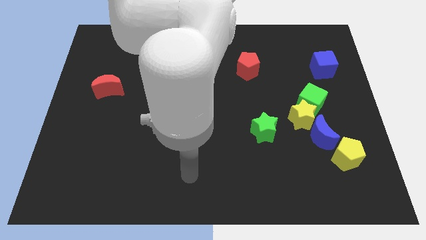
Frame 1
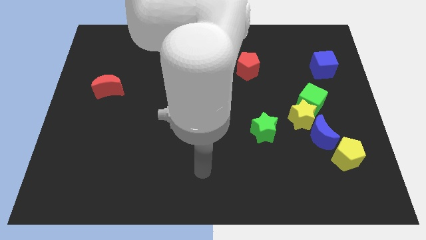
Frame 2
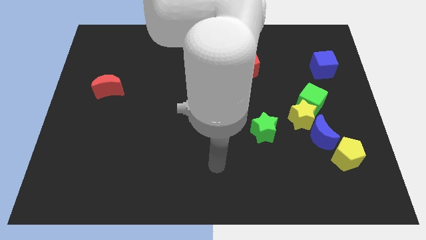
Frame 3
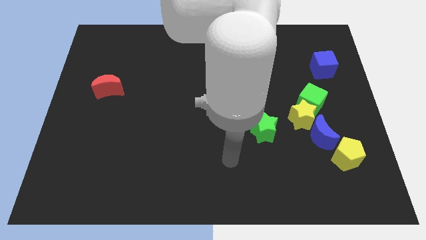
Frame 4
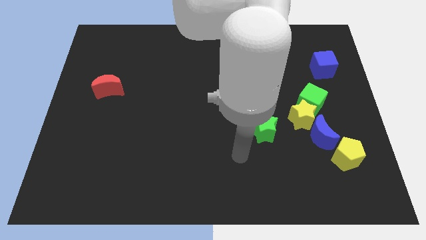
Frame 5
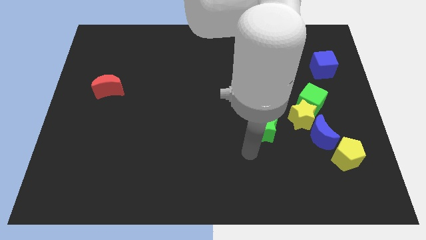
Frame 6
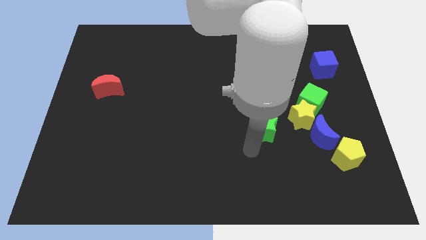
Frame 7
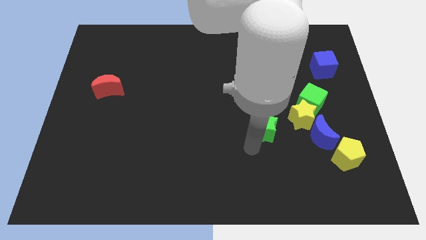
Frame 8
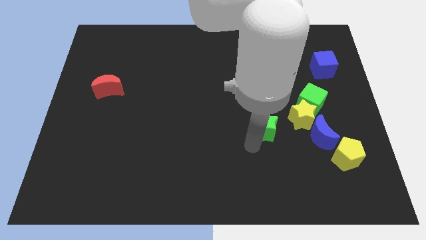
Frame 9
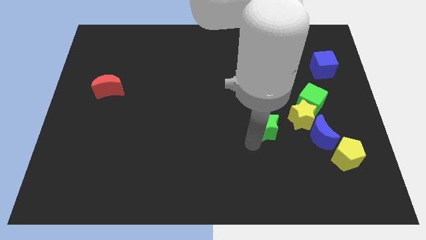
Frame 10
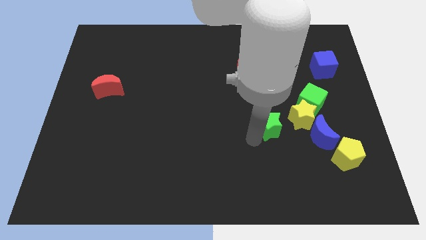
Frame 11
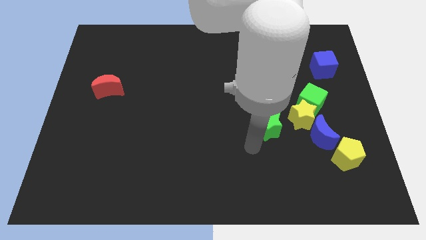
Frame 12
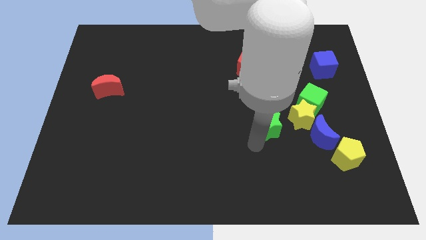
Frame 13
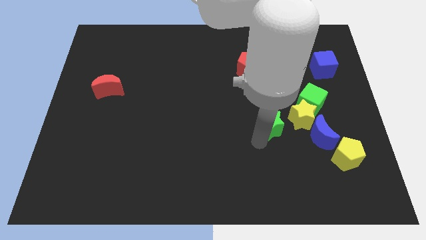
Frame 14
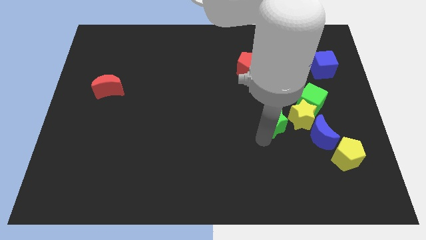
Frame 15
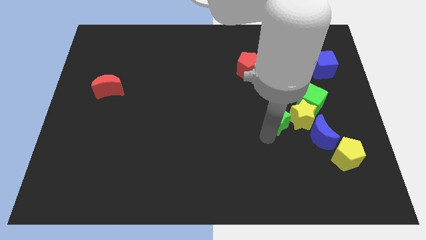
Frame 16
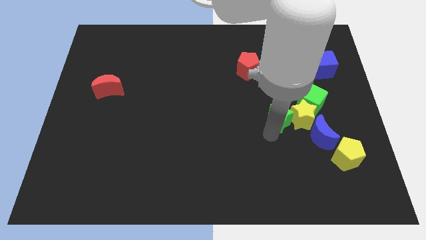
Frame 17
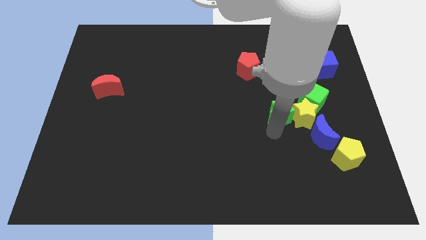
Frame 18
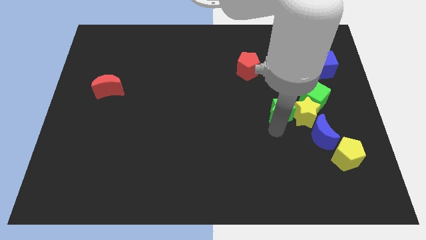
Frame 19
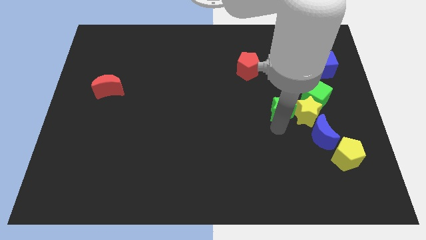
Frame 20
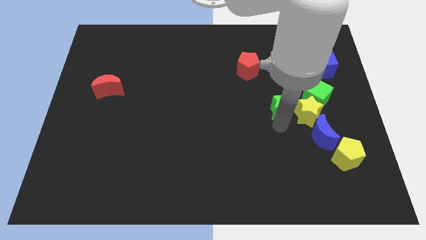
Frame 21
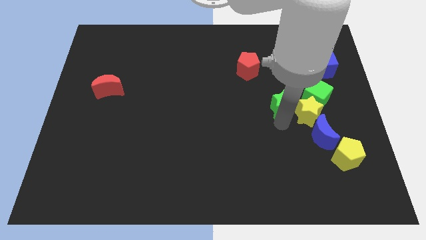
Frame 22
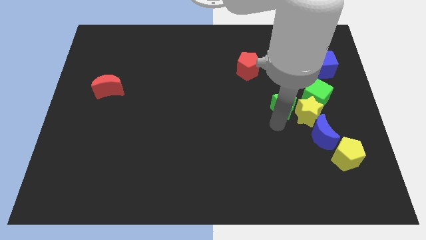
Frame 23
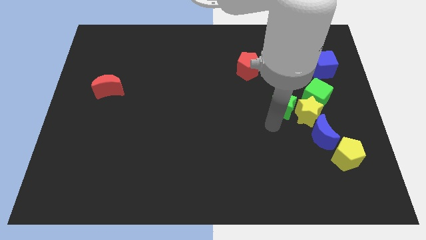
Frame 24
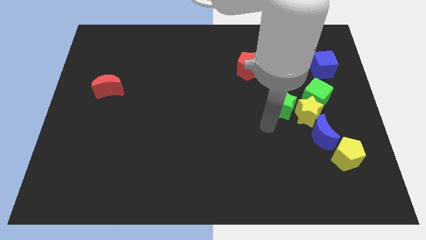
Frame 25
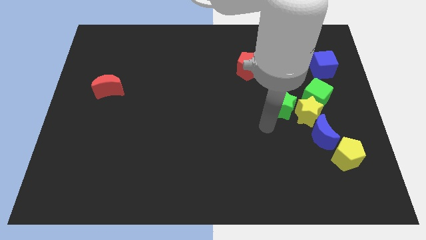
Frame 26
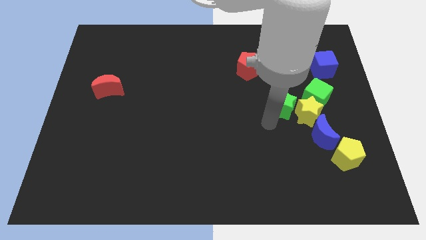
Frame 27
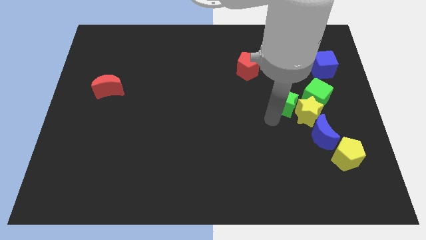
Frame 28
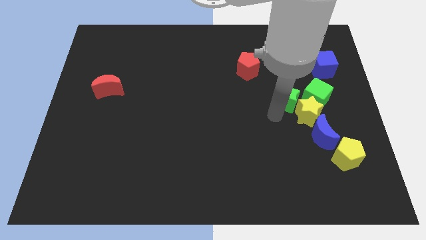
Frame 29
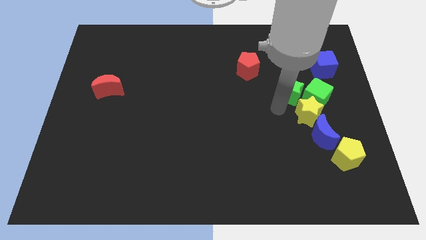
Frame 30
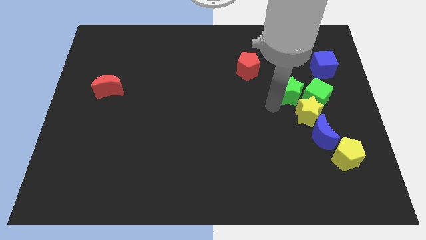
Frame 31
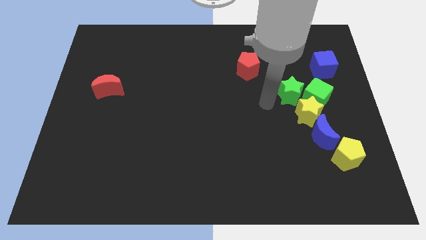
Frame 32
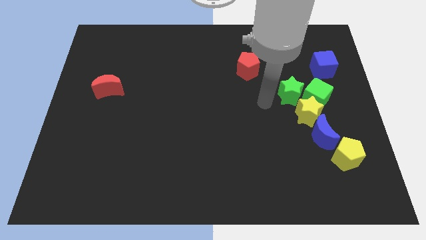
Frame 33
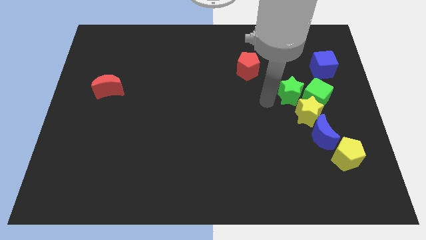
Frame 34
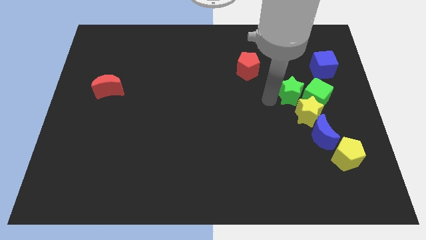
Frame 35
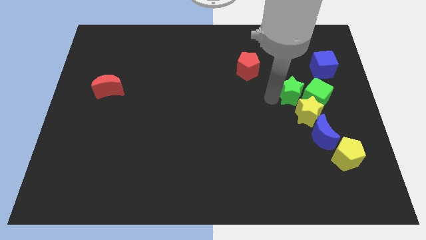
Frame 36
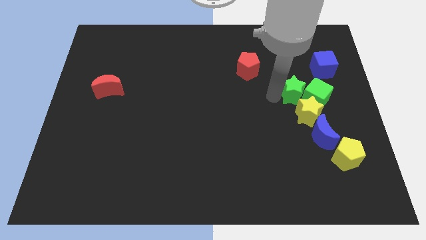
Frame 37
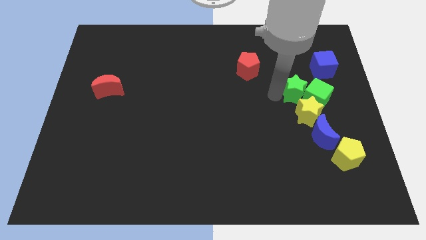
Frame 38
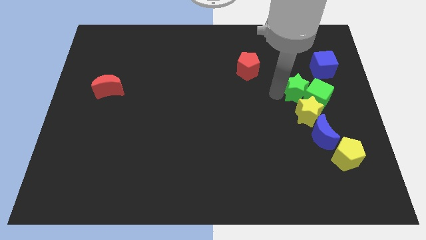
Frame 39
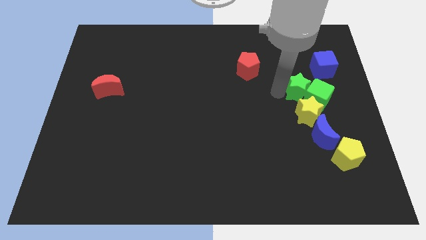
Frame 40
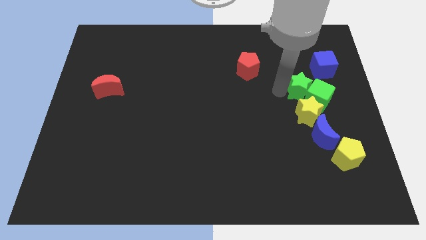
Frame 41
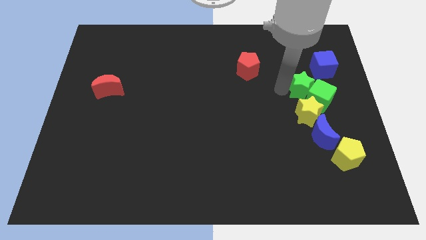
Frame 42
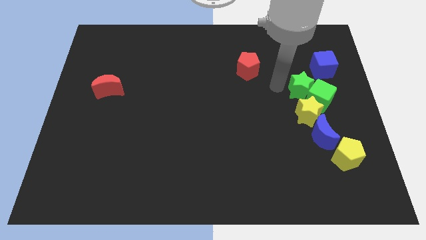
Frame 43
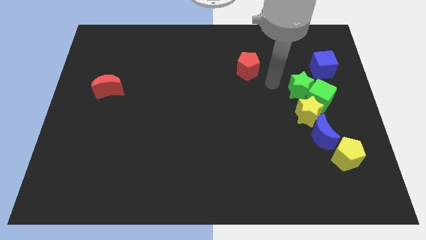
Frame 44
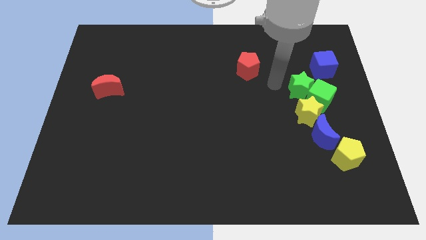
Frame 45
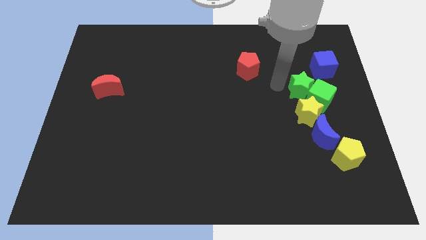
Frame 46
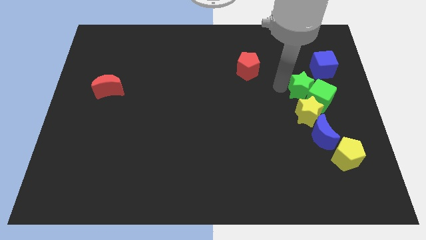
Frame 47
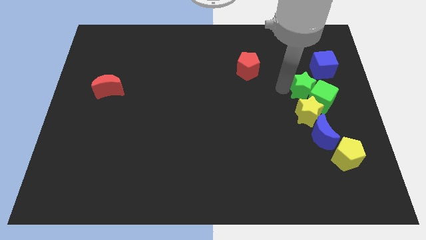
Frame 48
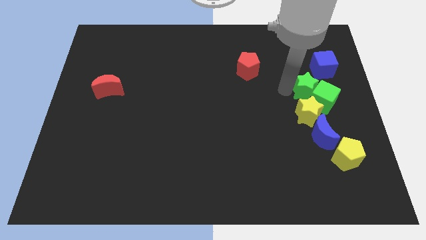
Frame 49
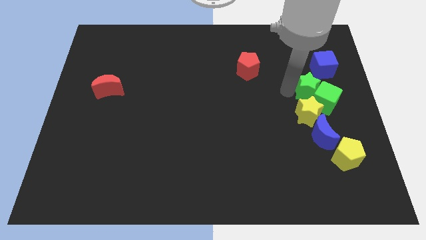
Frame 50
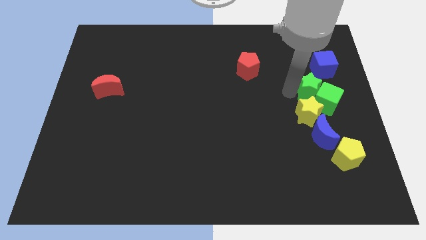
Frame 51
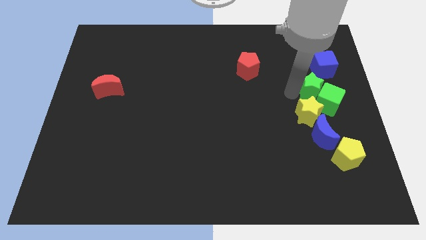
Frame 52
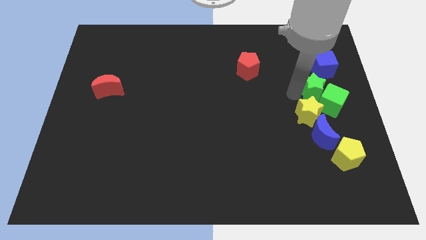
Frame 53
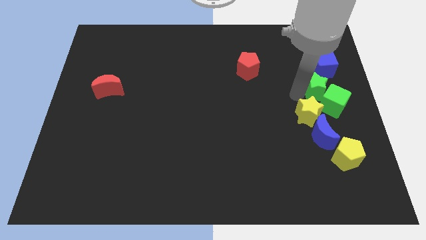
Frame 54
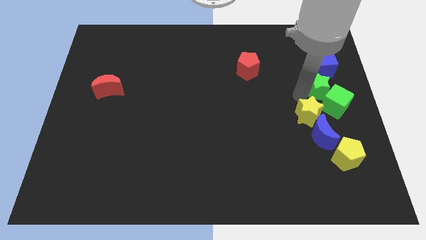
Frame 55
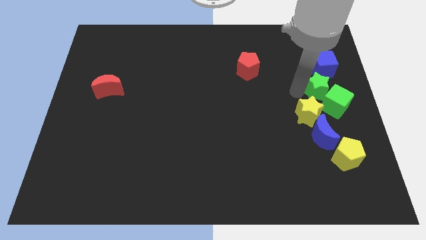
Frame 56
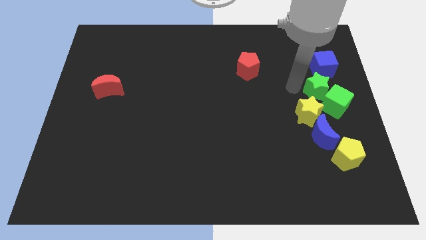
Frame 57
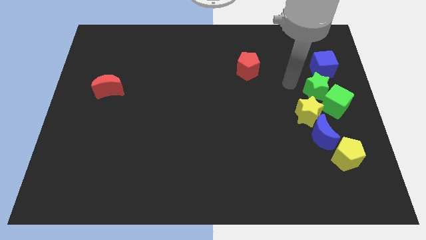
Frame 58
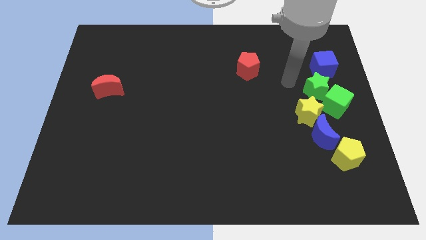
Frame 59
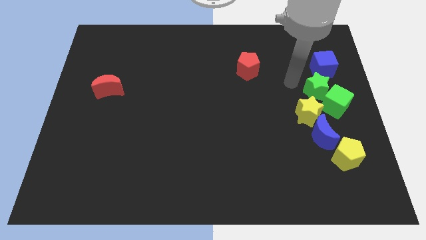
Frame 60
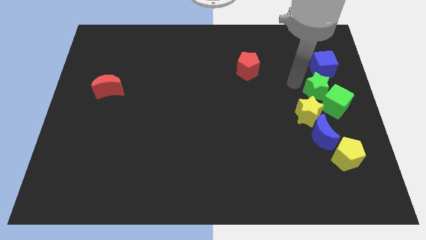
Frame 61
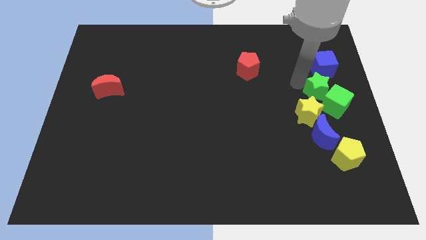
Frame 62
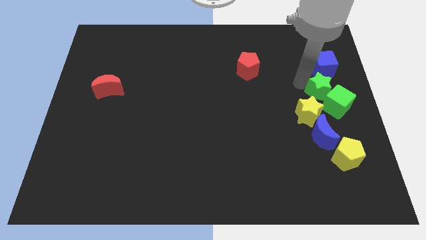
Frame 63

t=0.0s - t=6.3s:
slide the green star to the right side
